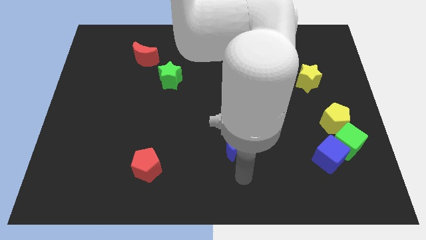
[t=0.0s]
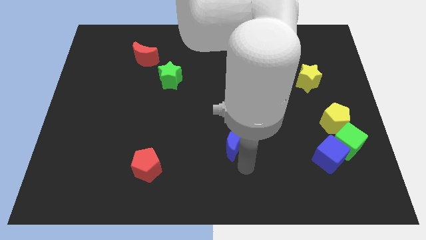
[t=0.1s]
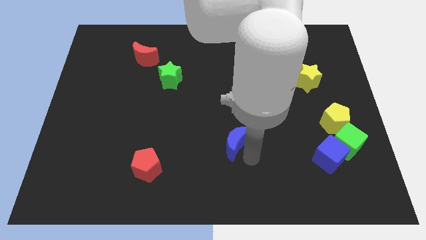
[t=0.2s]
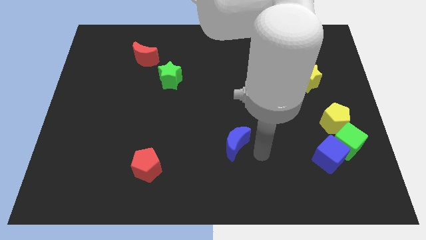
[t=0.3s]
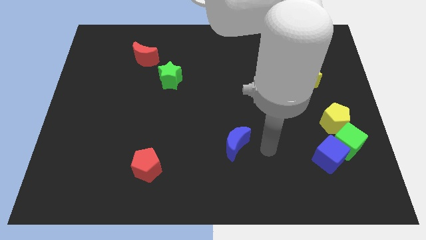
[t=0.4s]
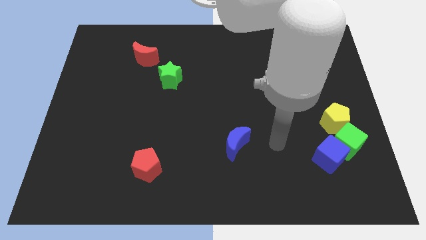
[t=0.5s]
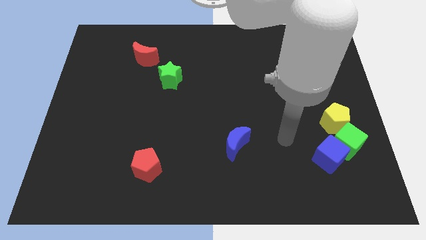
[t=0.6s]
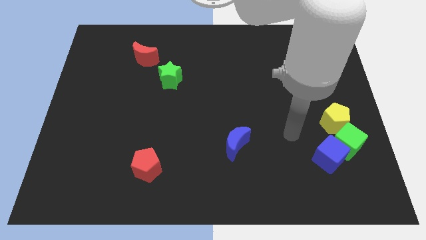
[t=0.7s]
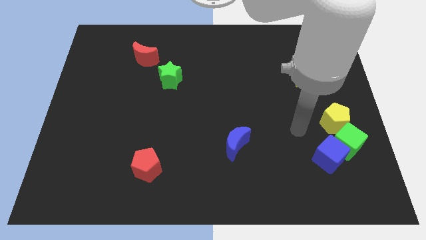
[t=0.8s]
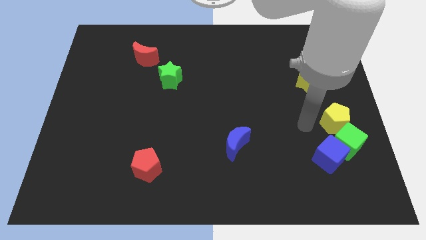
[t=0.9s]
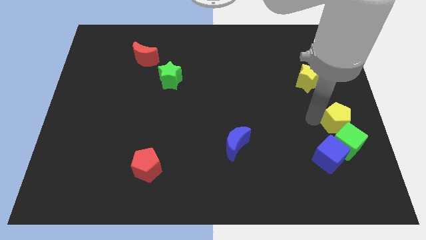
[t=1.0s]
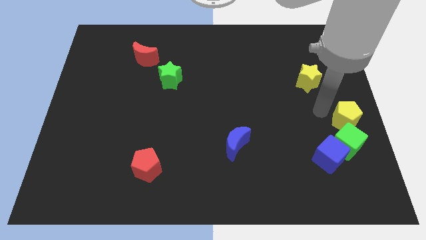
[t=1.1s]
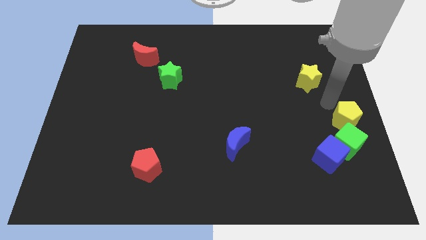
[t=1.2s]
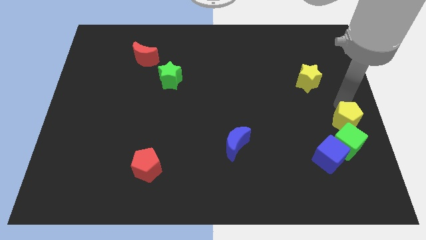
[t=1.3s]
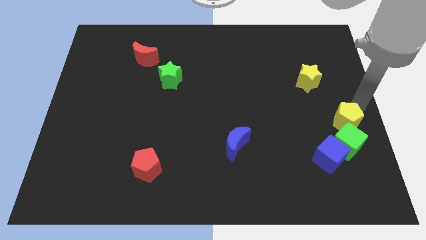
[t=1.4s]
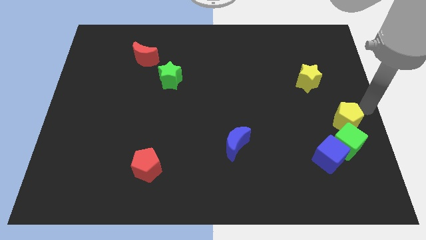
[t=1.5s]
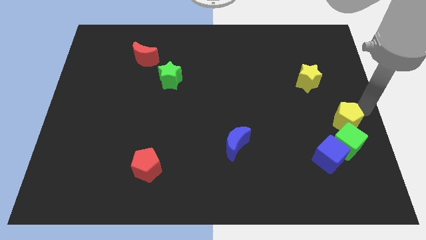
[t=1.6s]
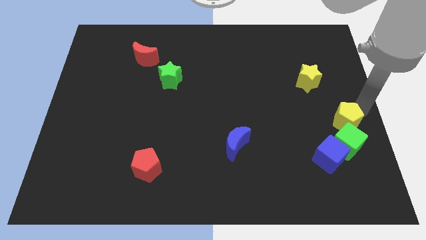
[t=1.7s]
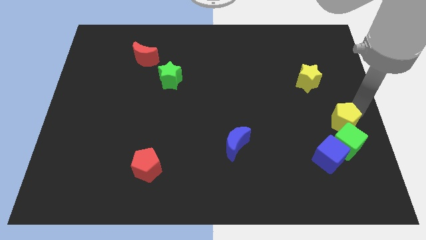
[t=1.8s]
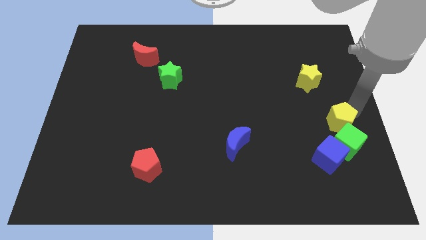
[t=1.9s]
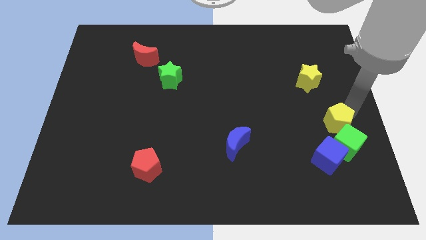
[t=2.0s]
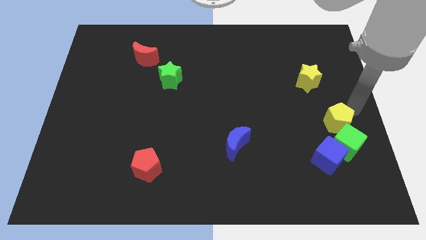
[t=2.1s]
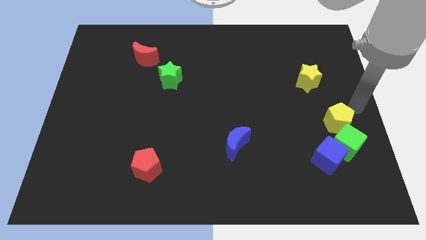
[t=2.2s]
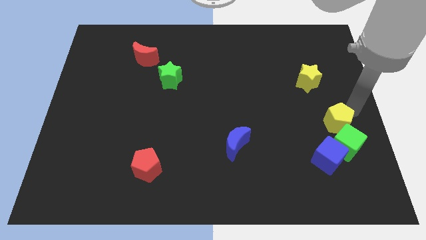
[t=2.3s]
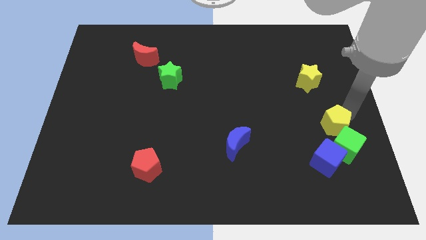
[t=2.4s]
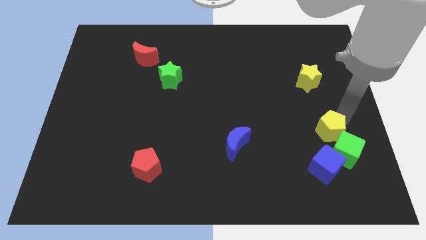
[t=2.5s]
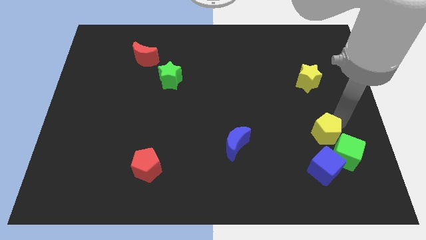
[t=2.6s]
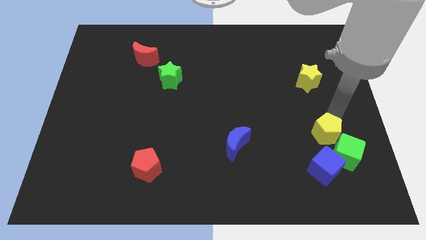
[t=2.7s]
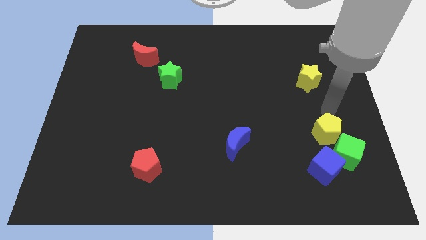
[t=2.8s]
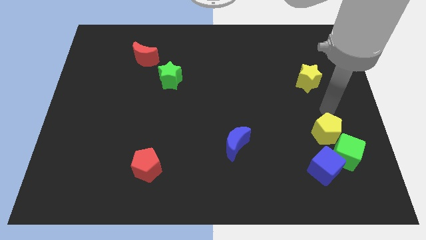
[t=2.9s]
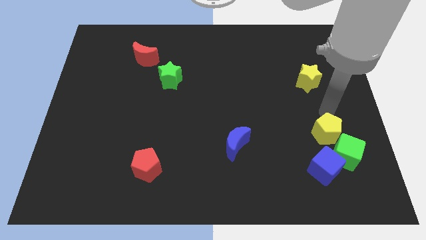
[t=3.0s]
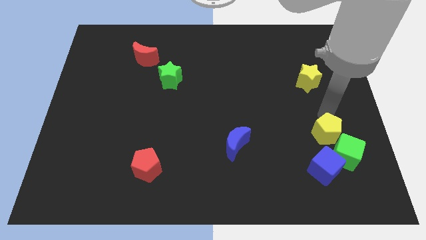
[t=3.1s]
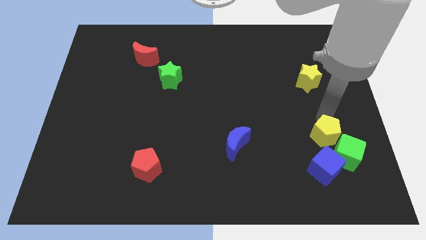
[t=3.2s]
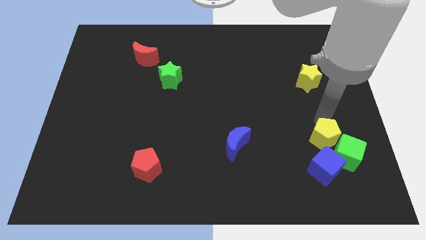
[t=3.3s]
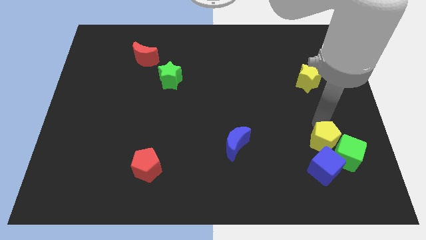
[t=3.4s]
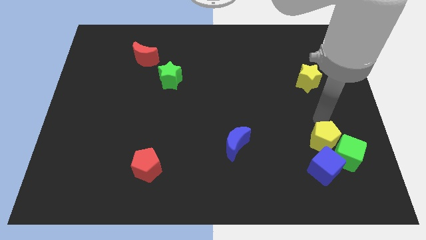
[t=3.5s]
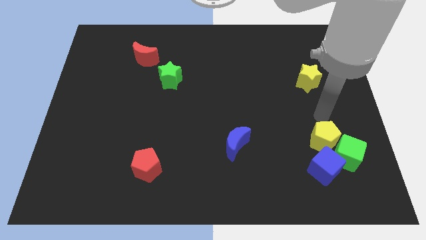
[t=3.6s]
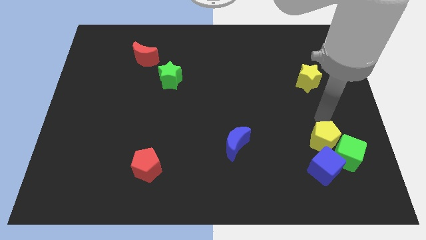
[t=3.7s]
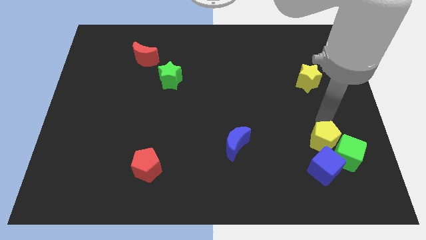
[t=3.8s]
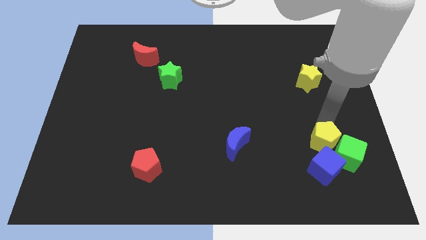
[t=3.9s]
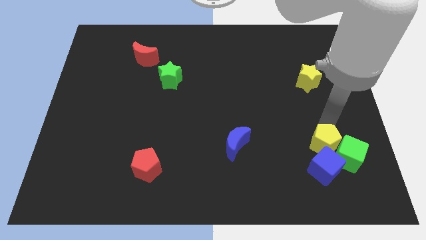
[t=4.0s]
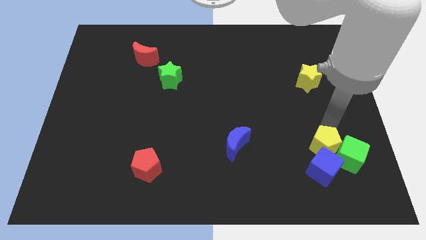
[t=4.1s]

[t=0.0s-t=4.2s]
move the yellow pentagon towards the blue cube

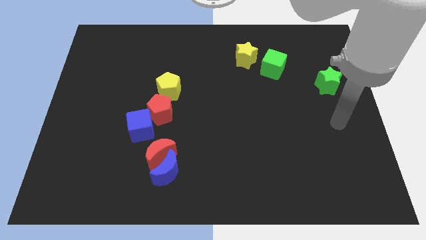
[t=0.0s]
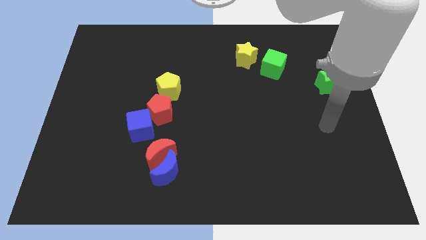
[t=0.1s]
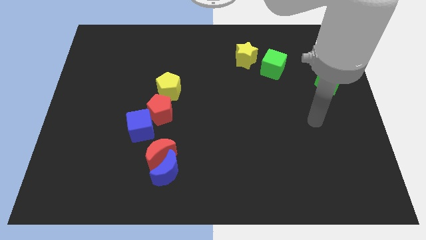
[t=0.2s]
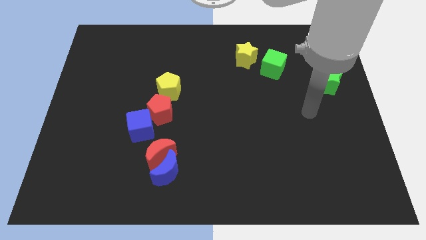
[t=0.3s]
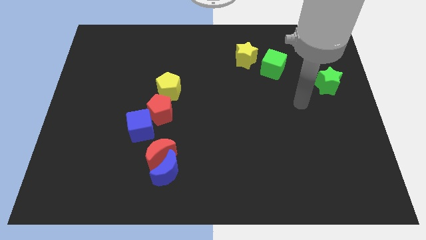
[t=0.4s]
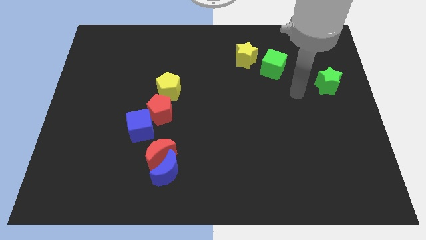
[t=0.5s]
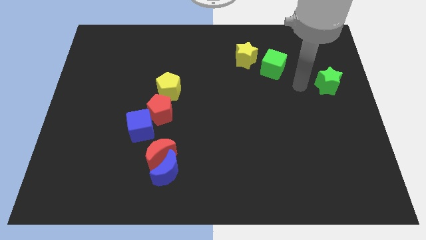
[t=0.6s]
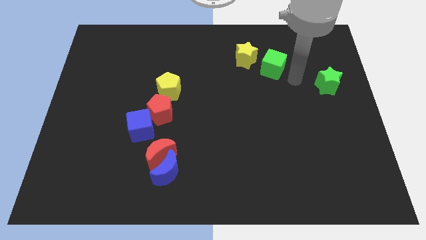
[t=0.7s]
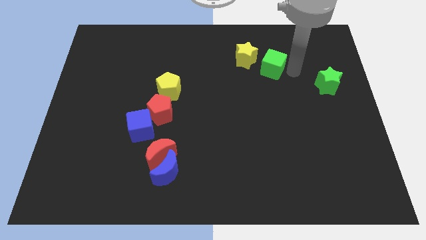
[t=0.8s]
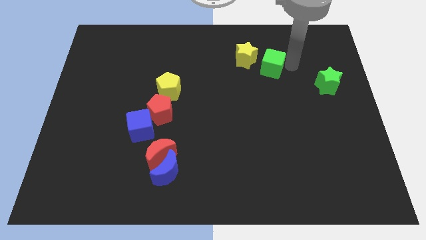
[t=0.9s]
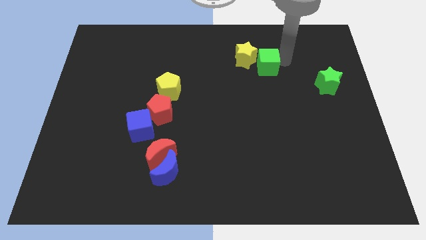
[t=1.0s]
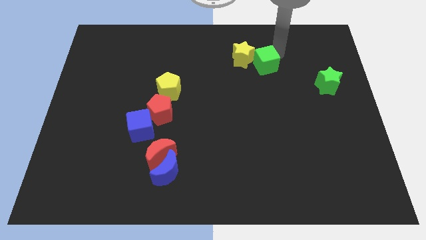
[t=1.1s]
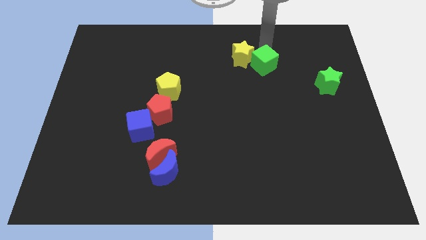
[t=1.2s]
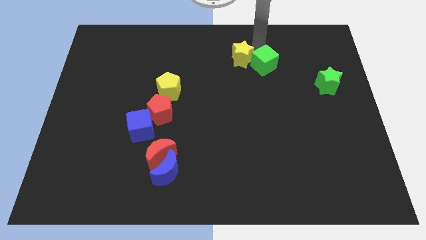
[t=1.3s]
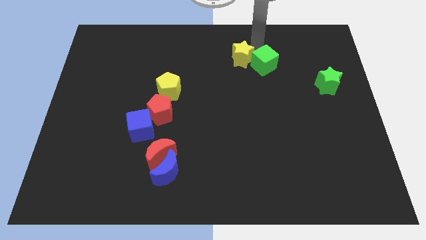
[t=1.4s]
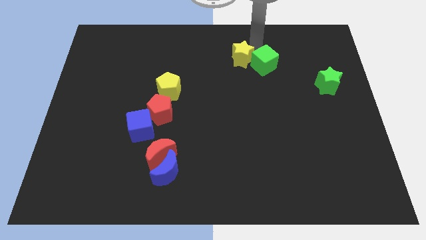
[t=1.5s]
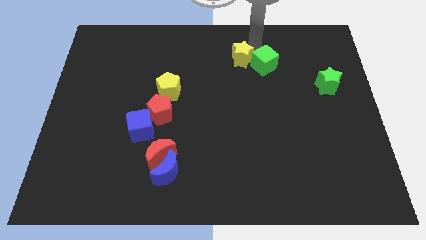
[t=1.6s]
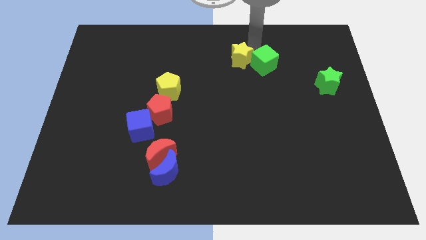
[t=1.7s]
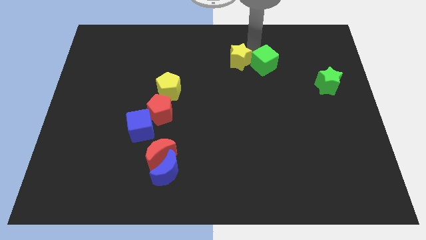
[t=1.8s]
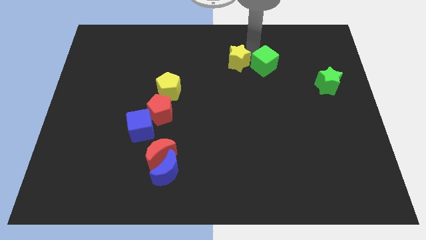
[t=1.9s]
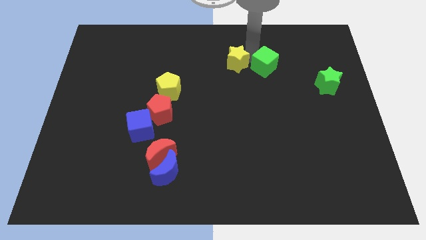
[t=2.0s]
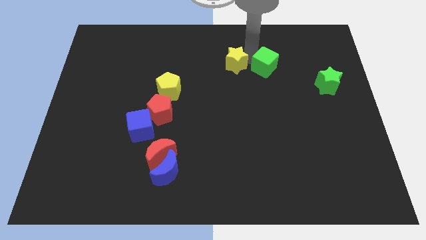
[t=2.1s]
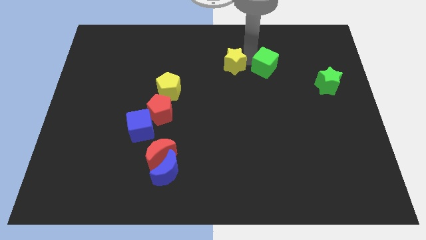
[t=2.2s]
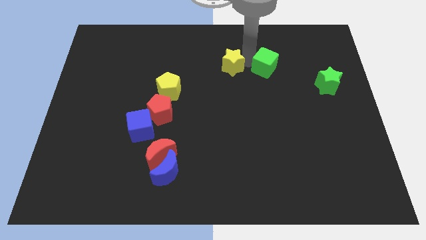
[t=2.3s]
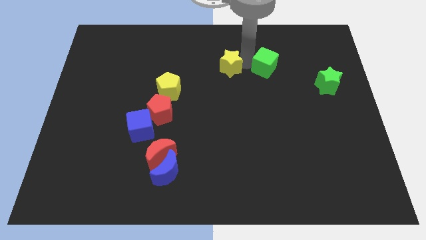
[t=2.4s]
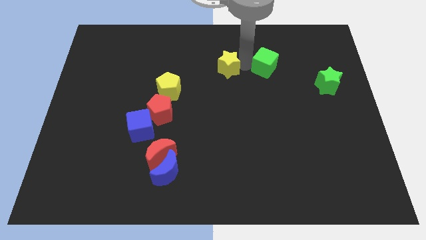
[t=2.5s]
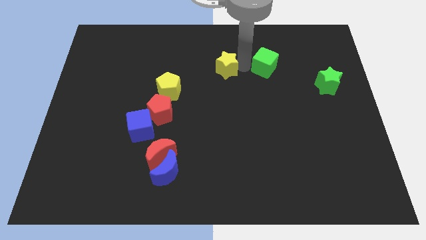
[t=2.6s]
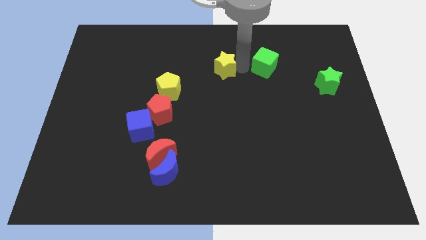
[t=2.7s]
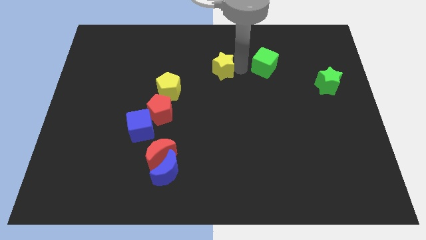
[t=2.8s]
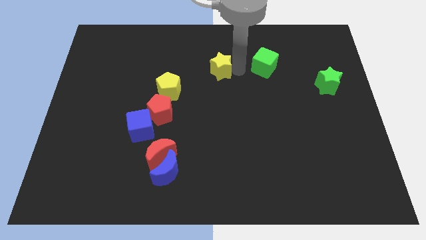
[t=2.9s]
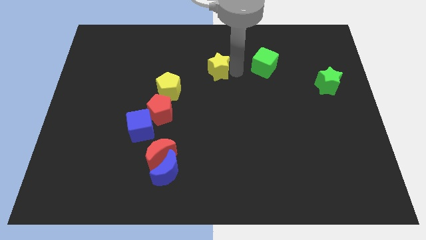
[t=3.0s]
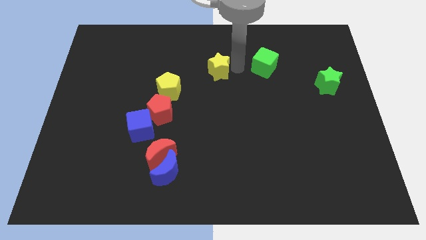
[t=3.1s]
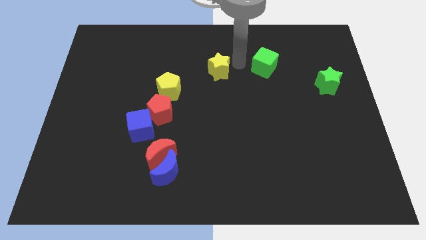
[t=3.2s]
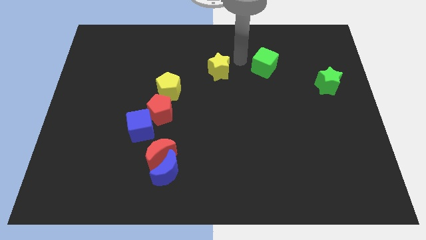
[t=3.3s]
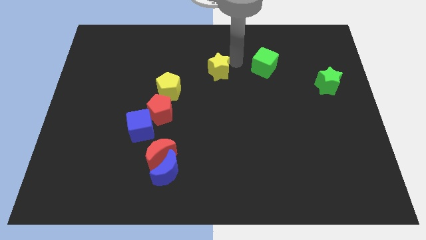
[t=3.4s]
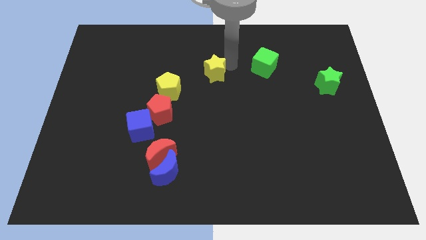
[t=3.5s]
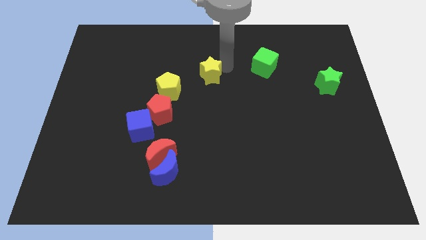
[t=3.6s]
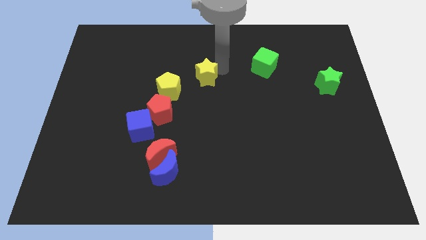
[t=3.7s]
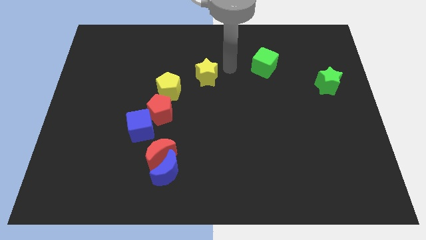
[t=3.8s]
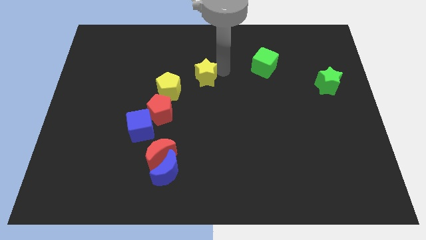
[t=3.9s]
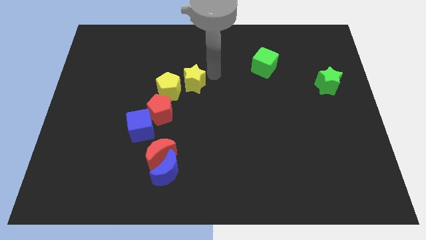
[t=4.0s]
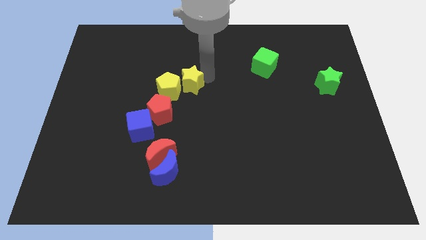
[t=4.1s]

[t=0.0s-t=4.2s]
move the yellow star next to the yellow pentagon
